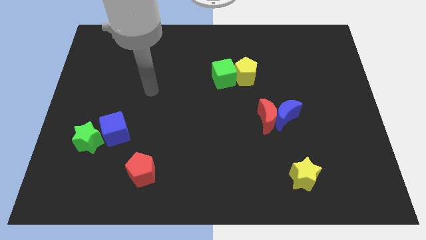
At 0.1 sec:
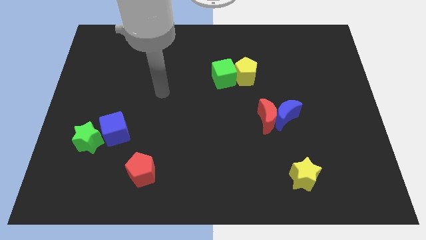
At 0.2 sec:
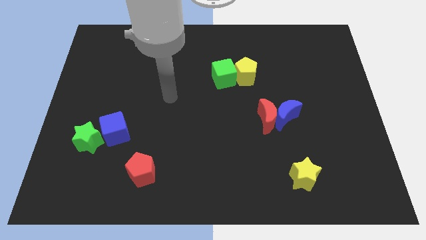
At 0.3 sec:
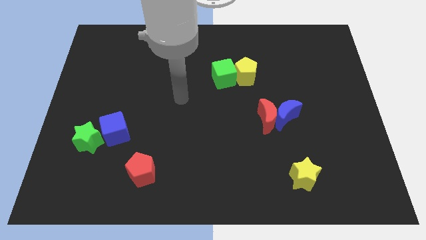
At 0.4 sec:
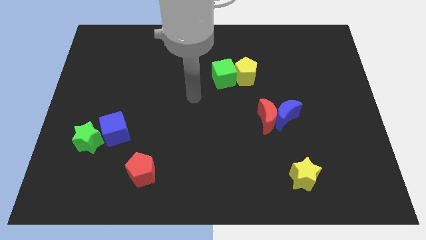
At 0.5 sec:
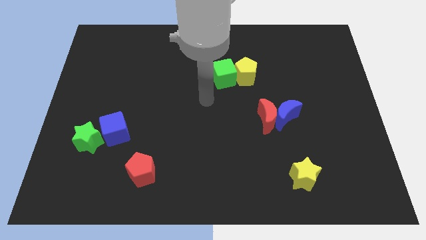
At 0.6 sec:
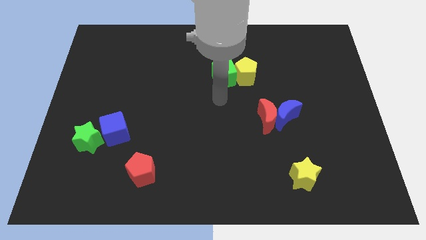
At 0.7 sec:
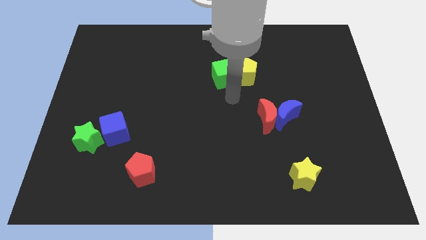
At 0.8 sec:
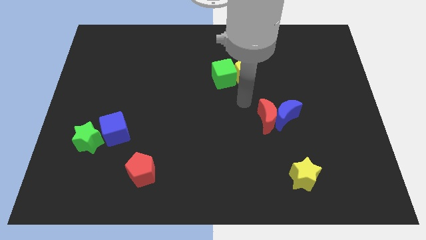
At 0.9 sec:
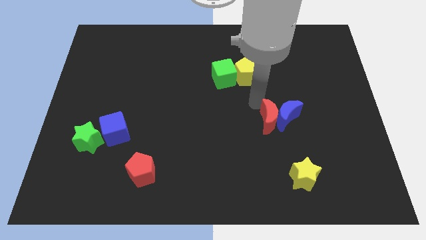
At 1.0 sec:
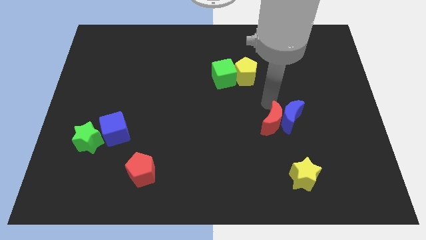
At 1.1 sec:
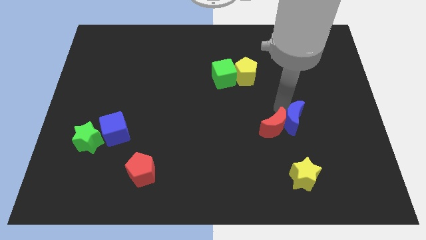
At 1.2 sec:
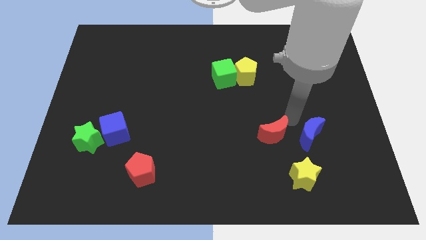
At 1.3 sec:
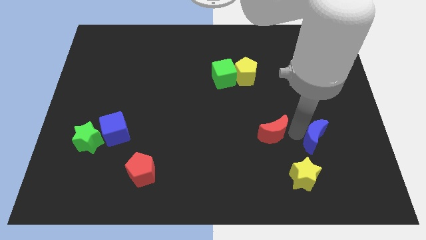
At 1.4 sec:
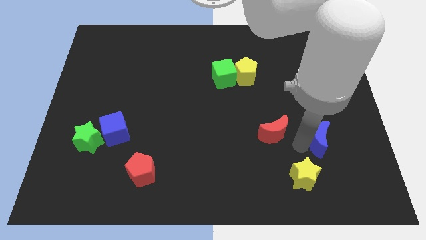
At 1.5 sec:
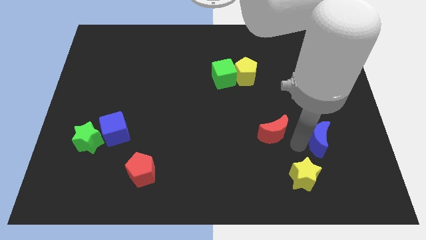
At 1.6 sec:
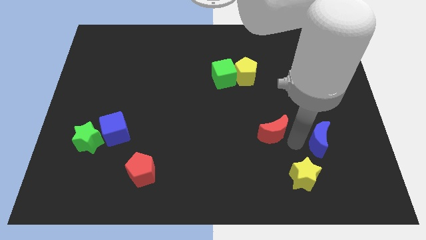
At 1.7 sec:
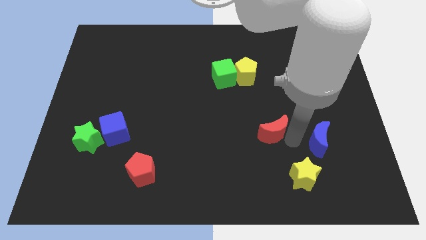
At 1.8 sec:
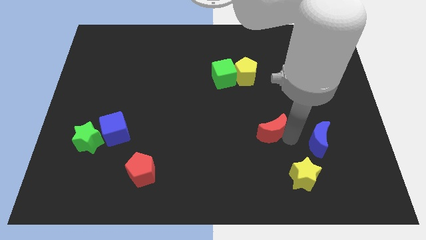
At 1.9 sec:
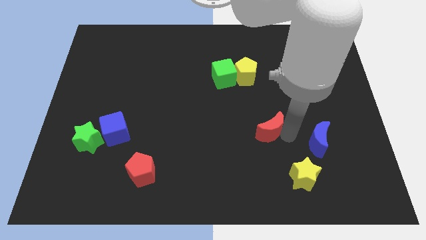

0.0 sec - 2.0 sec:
pull the red moon apart from the blue moon

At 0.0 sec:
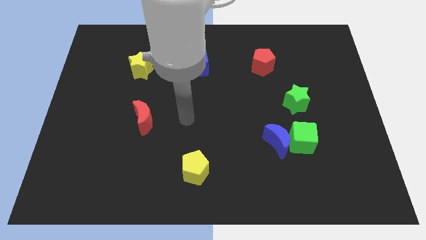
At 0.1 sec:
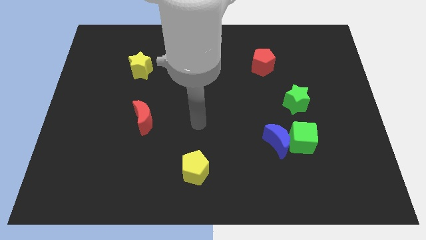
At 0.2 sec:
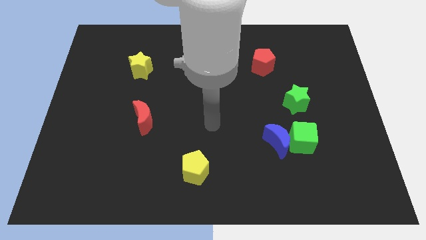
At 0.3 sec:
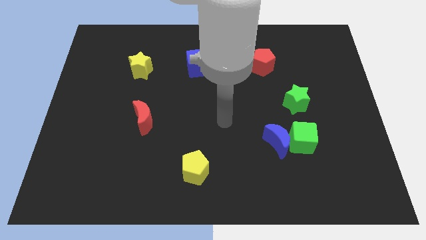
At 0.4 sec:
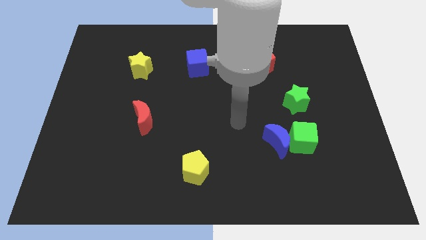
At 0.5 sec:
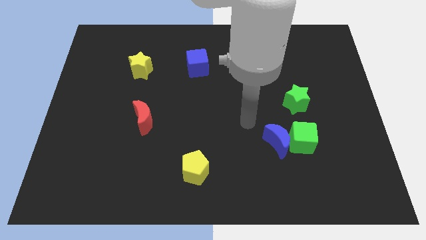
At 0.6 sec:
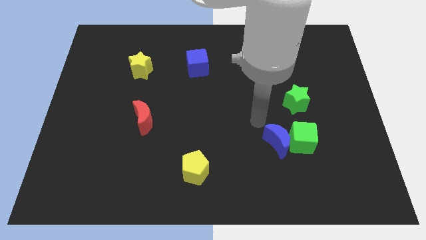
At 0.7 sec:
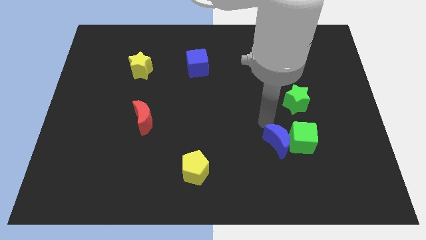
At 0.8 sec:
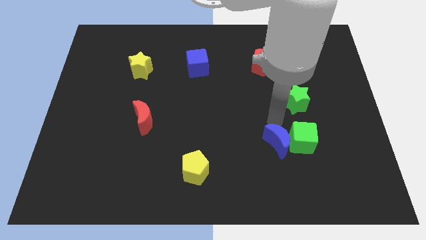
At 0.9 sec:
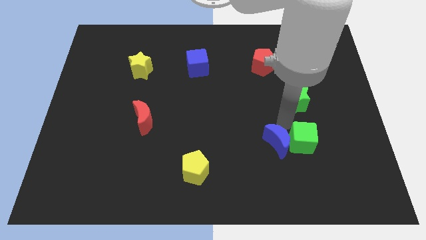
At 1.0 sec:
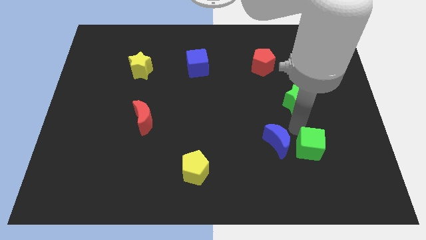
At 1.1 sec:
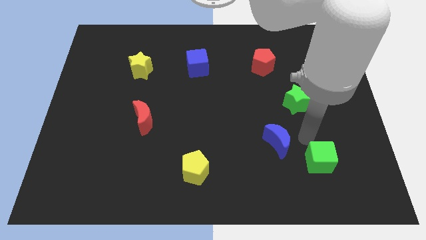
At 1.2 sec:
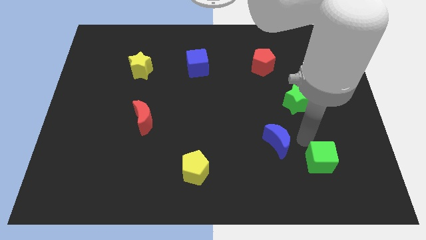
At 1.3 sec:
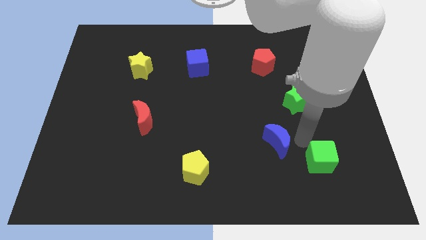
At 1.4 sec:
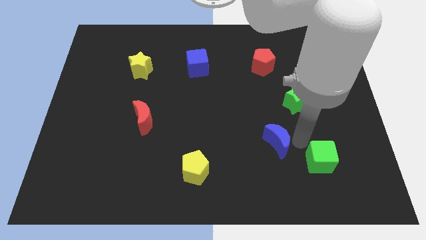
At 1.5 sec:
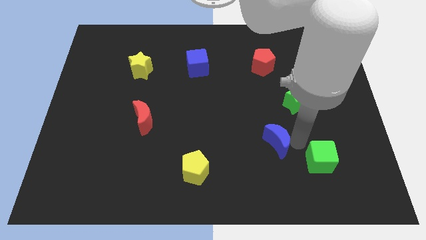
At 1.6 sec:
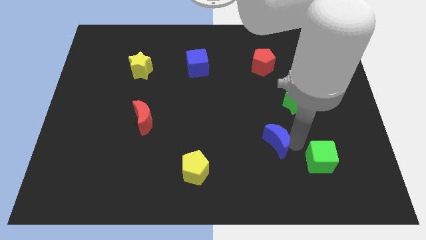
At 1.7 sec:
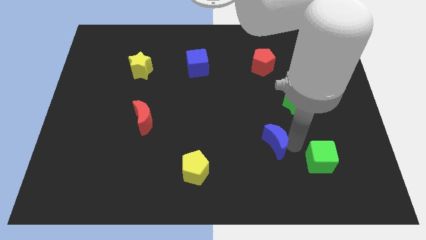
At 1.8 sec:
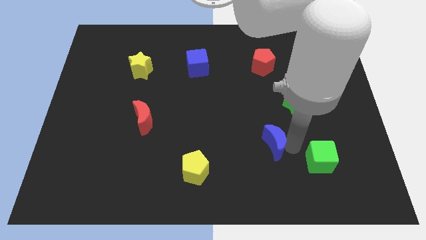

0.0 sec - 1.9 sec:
move the blue moon away from the green cube

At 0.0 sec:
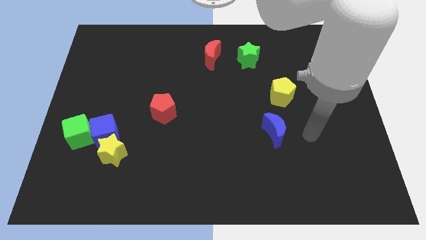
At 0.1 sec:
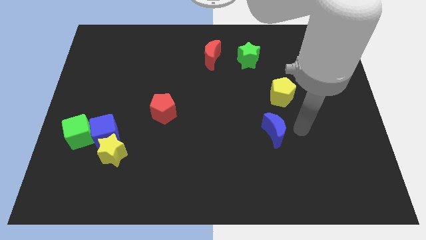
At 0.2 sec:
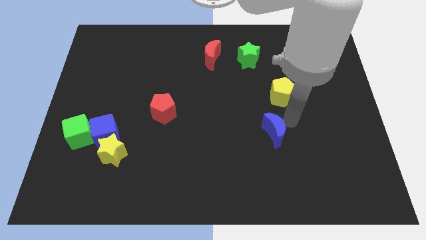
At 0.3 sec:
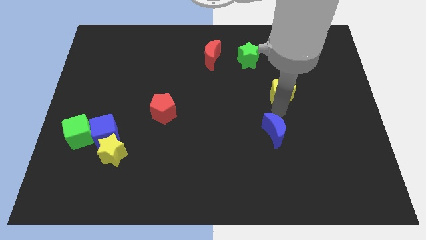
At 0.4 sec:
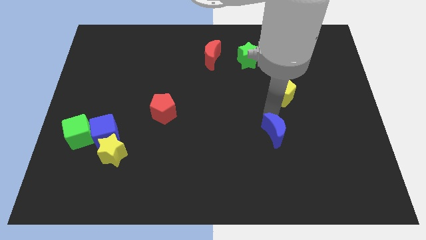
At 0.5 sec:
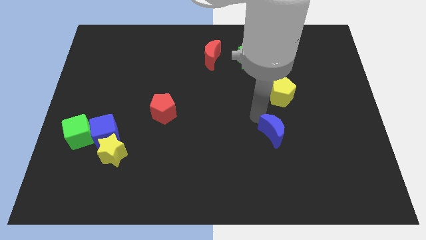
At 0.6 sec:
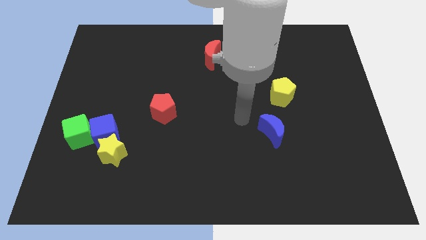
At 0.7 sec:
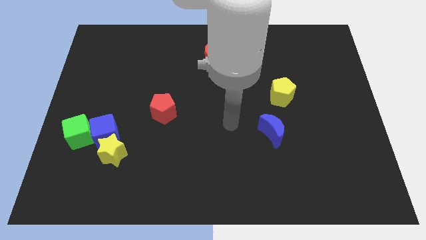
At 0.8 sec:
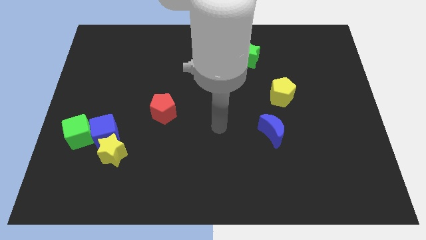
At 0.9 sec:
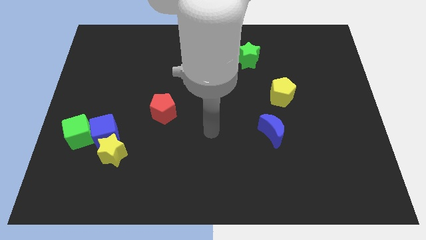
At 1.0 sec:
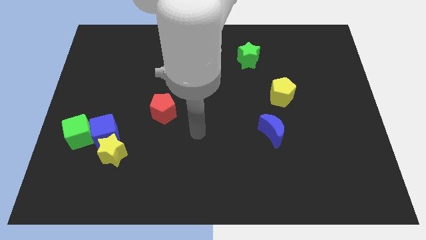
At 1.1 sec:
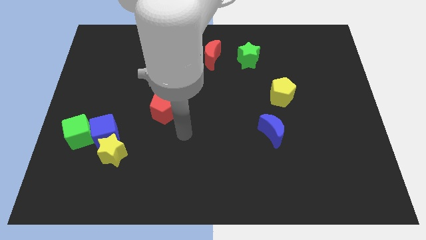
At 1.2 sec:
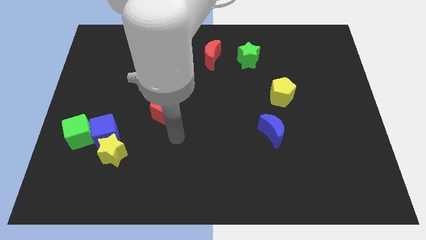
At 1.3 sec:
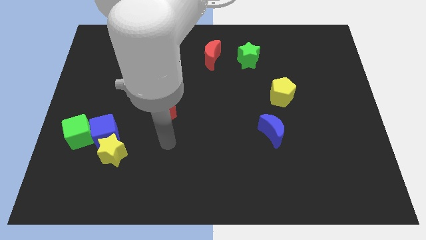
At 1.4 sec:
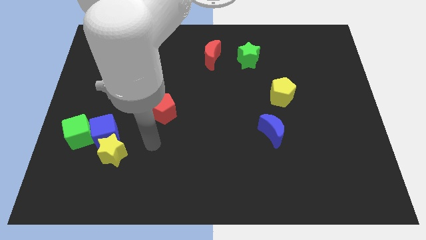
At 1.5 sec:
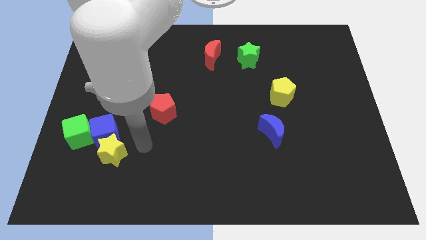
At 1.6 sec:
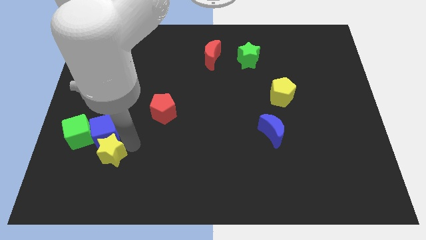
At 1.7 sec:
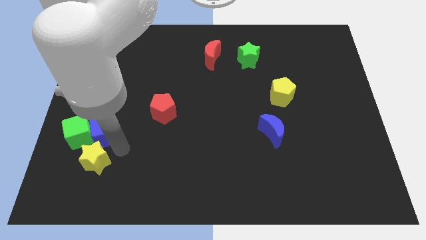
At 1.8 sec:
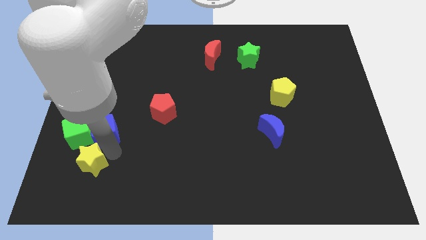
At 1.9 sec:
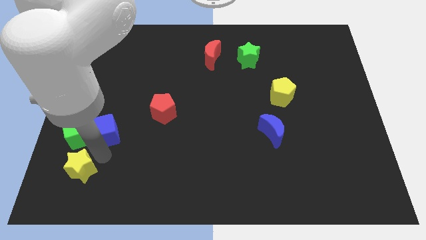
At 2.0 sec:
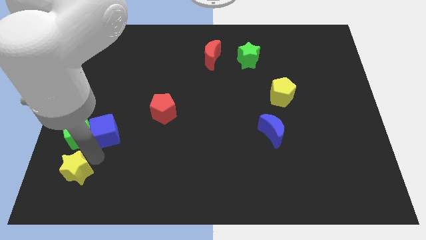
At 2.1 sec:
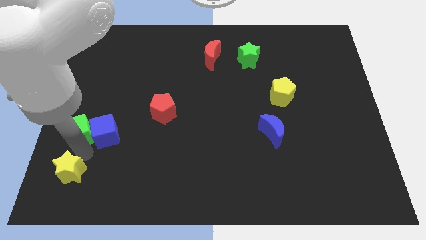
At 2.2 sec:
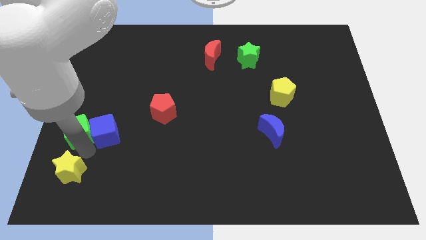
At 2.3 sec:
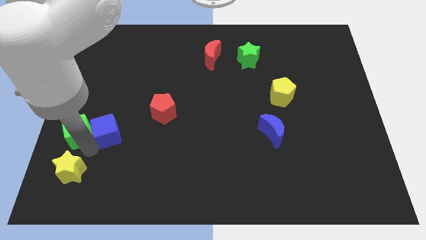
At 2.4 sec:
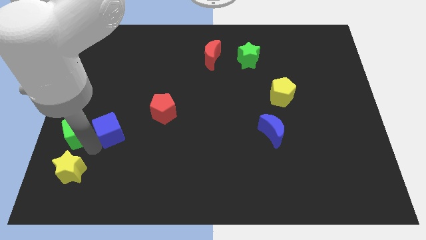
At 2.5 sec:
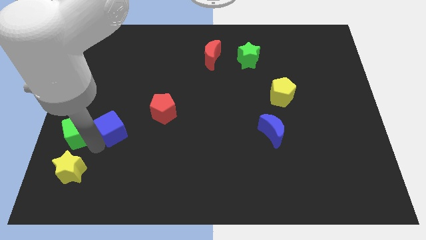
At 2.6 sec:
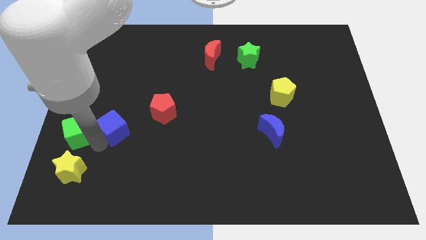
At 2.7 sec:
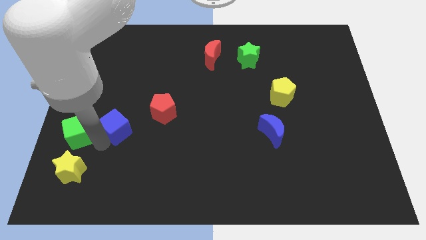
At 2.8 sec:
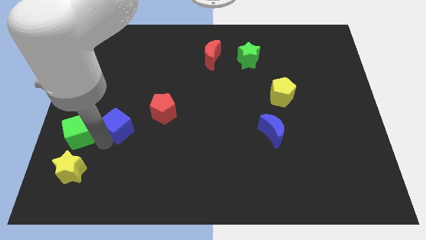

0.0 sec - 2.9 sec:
separate the blue cube from the yellow star and green cube

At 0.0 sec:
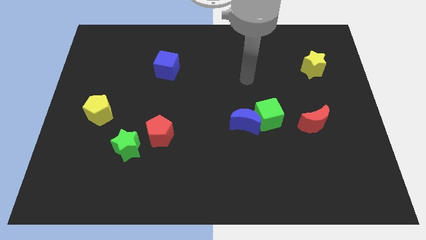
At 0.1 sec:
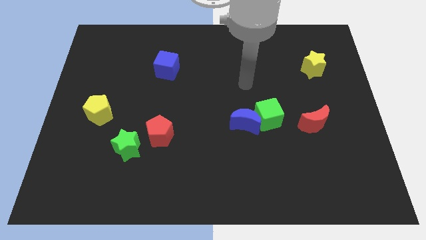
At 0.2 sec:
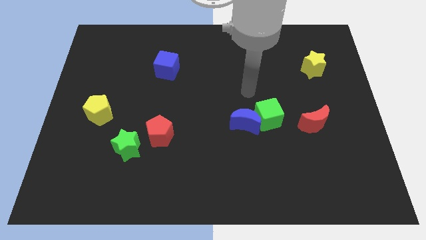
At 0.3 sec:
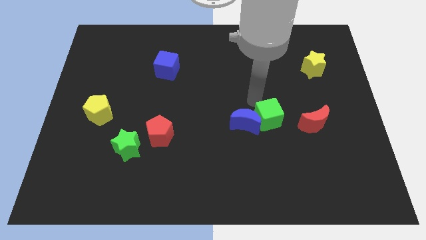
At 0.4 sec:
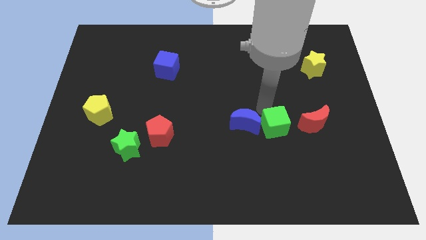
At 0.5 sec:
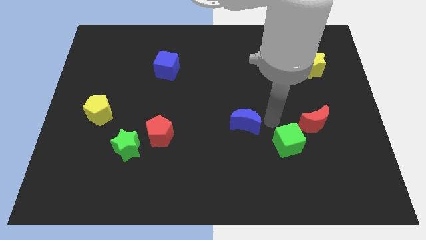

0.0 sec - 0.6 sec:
pull the blue moon apart from the green cube

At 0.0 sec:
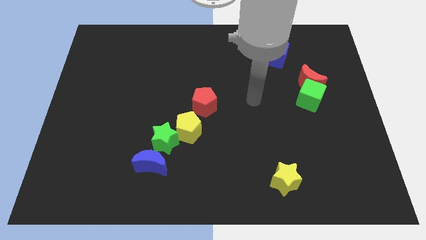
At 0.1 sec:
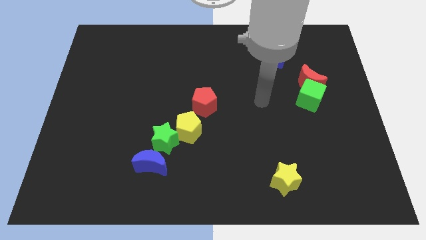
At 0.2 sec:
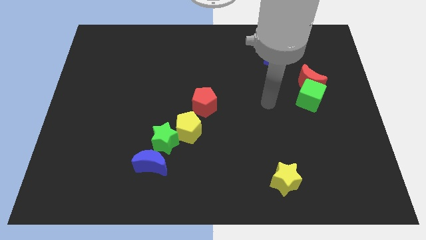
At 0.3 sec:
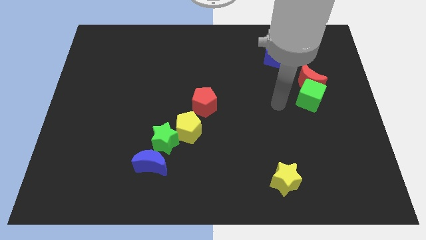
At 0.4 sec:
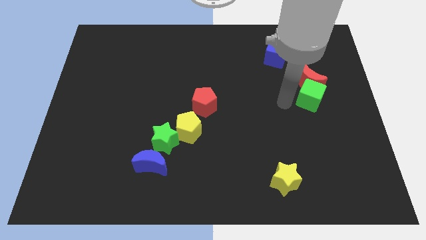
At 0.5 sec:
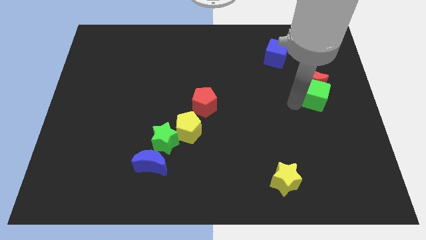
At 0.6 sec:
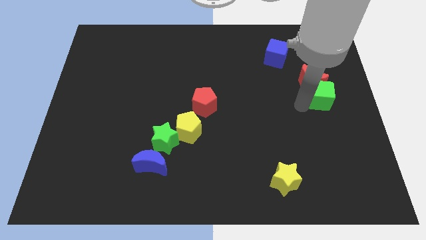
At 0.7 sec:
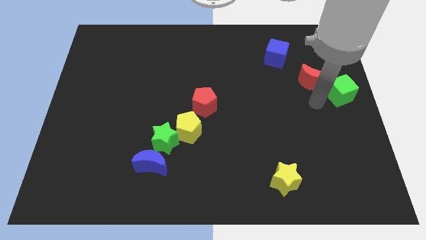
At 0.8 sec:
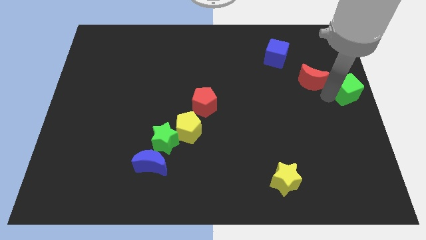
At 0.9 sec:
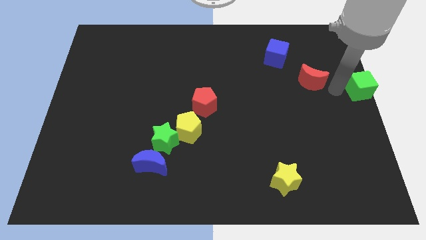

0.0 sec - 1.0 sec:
pull the red moon apart from the green cube

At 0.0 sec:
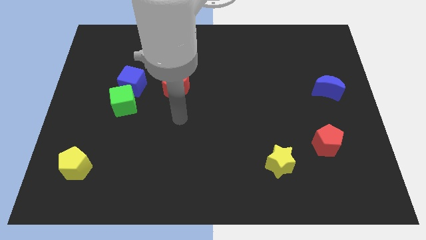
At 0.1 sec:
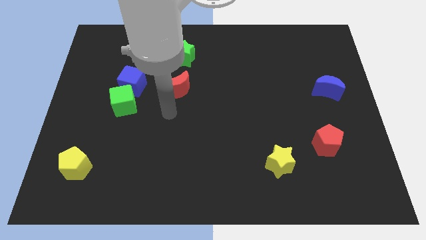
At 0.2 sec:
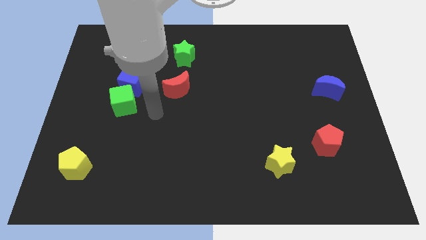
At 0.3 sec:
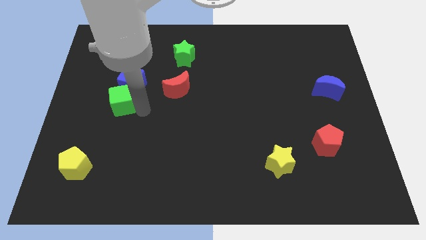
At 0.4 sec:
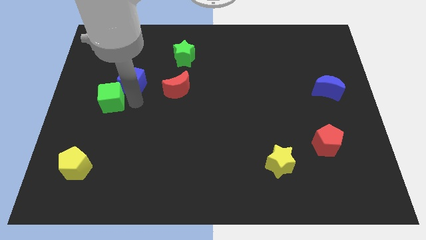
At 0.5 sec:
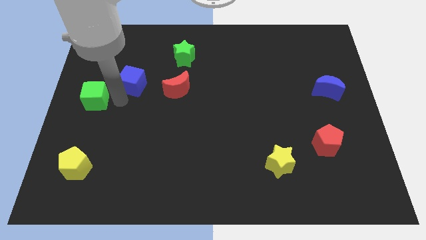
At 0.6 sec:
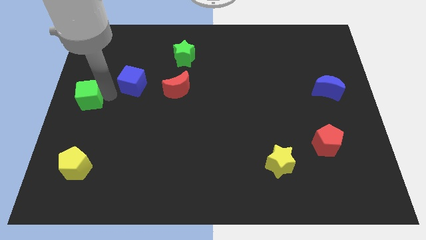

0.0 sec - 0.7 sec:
move the blue cube away from the green cube

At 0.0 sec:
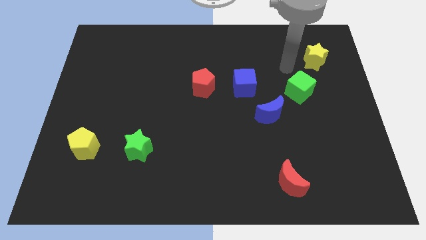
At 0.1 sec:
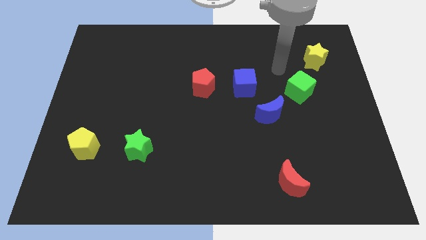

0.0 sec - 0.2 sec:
move the red pentagon away from the blue cube
